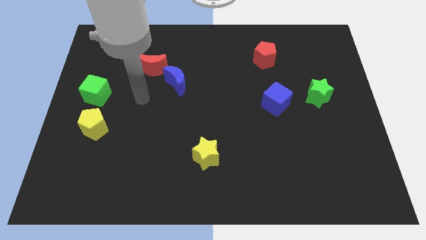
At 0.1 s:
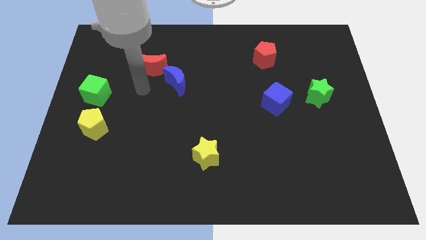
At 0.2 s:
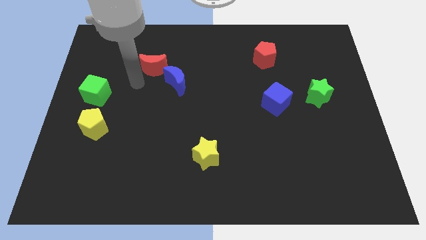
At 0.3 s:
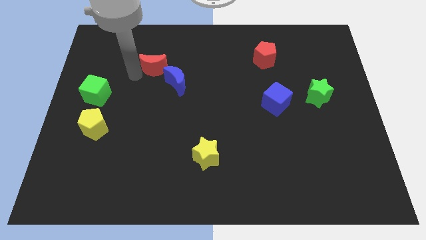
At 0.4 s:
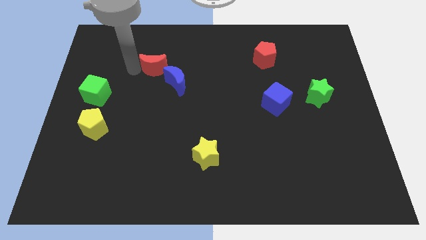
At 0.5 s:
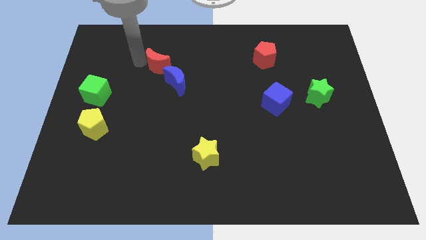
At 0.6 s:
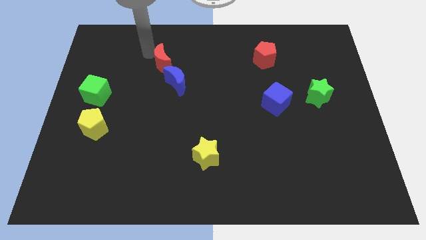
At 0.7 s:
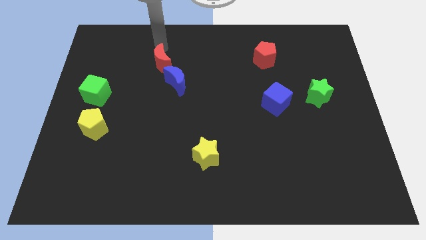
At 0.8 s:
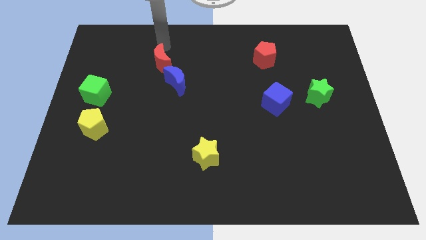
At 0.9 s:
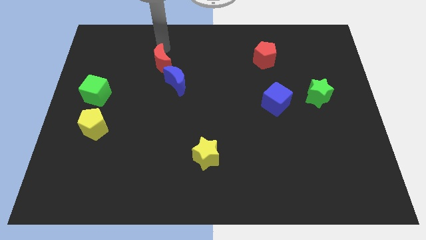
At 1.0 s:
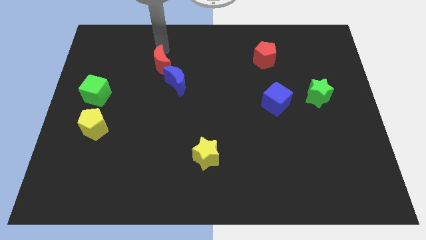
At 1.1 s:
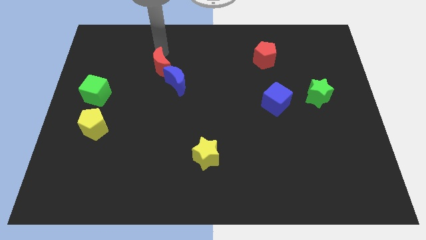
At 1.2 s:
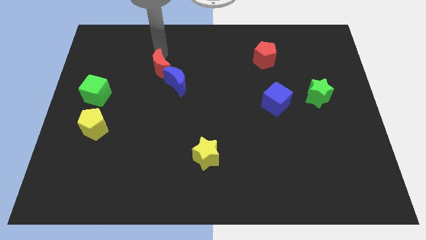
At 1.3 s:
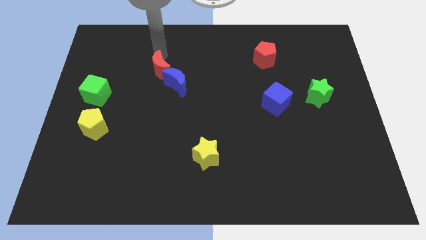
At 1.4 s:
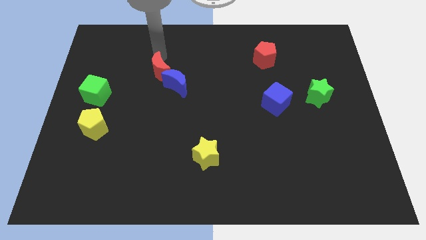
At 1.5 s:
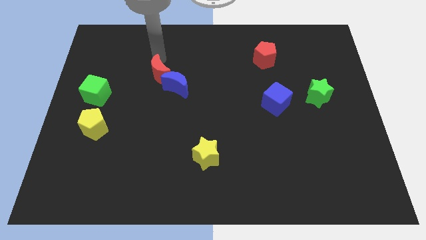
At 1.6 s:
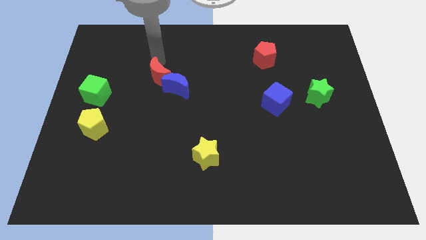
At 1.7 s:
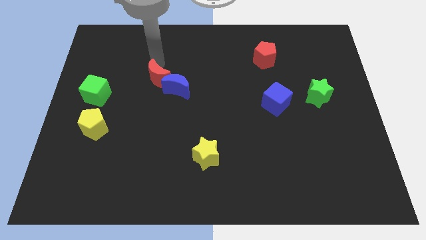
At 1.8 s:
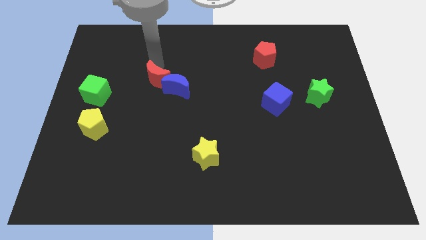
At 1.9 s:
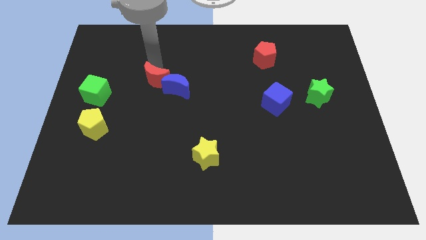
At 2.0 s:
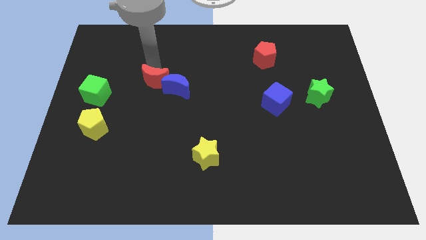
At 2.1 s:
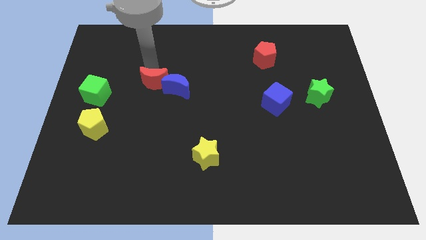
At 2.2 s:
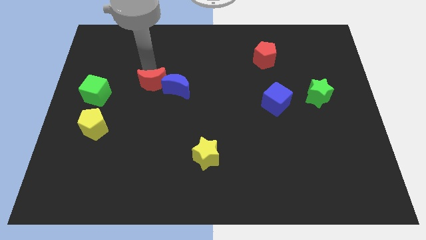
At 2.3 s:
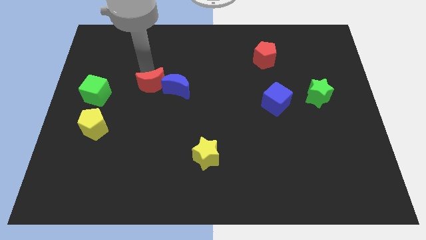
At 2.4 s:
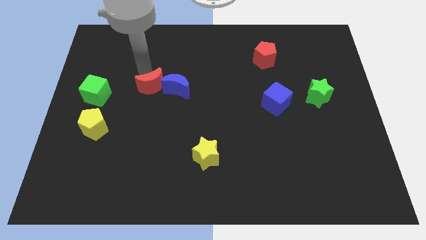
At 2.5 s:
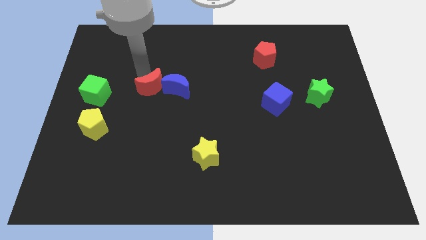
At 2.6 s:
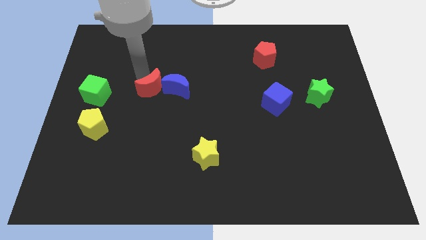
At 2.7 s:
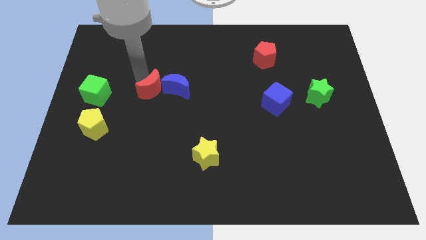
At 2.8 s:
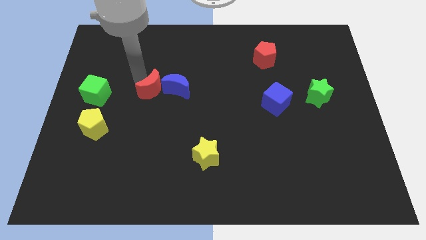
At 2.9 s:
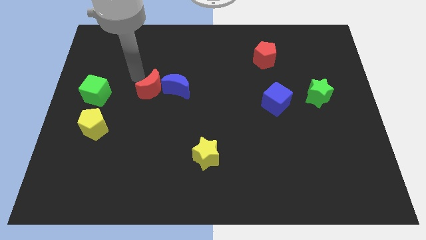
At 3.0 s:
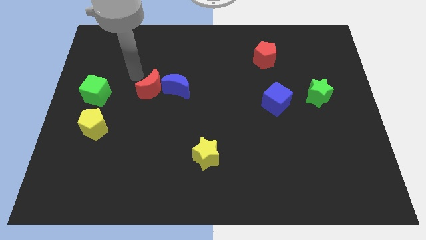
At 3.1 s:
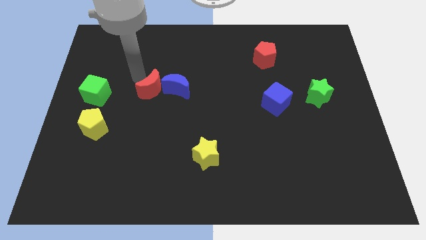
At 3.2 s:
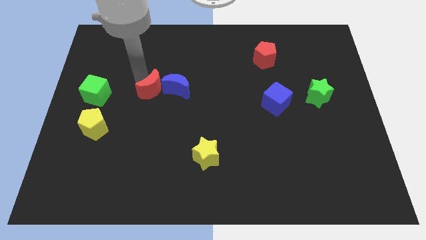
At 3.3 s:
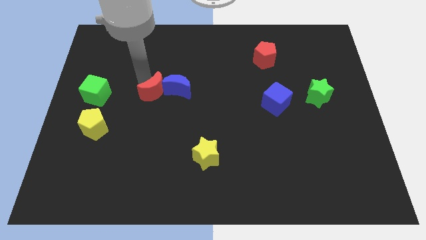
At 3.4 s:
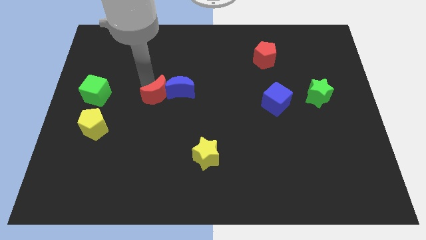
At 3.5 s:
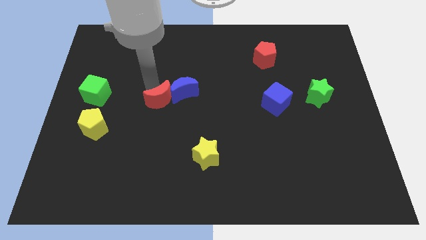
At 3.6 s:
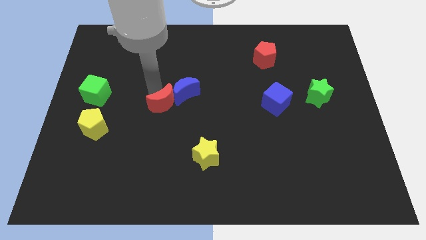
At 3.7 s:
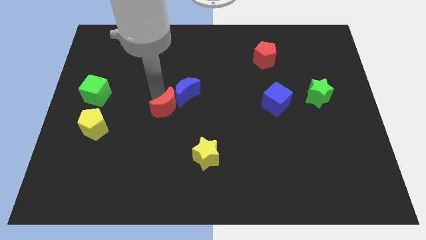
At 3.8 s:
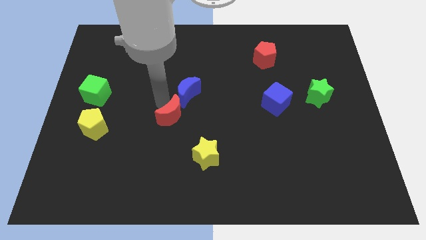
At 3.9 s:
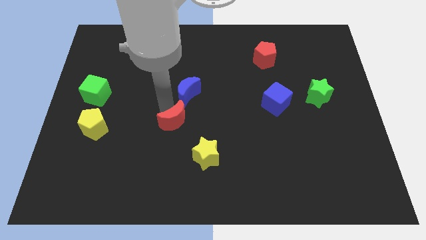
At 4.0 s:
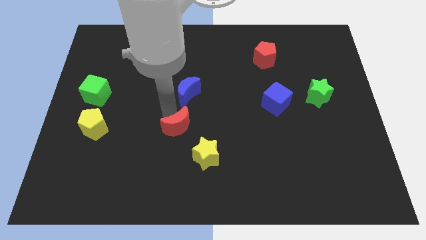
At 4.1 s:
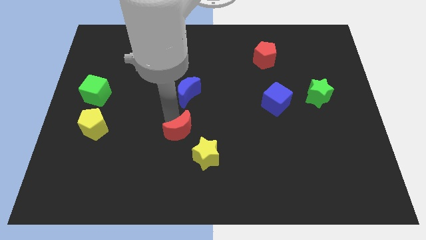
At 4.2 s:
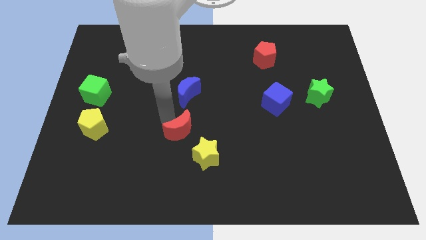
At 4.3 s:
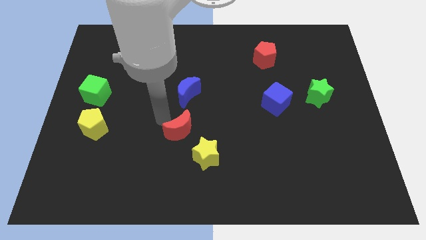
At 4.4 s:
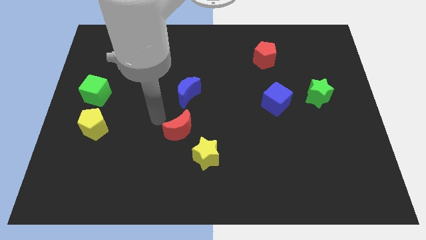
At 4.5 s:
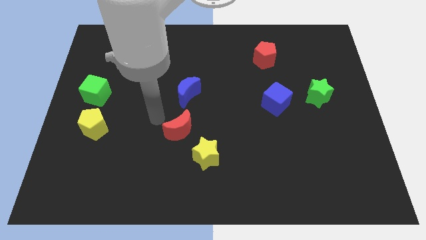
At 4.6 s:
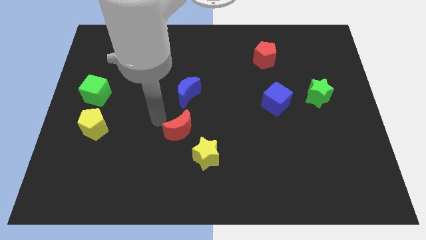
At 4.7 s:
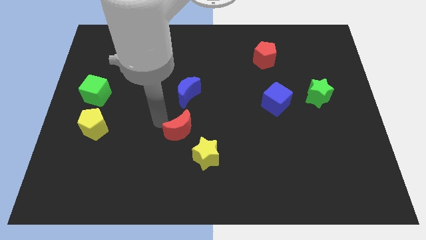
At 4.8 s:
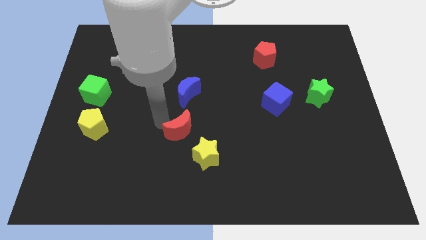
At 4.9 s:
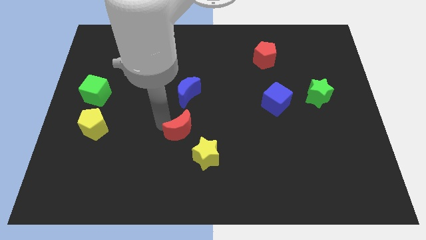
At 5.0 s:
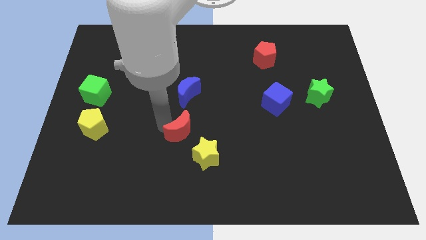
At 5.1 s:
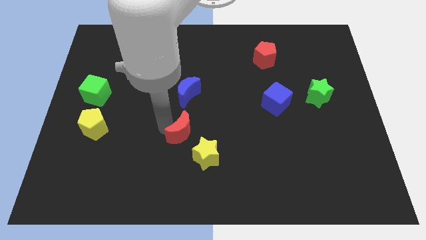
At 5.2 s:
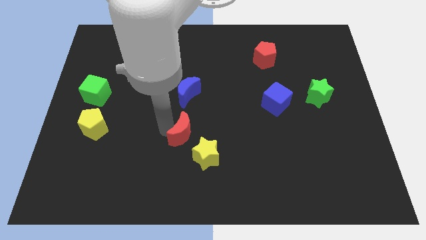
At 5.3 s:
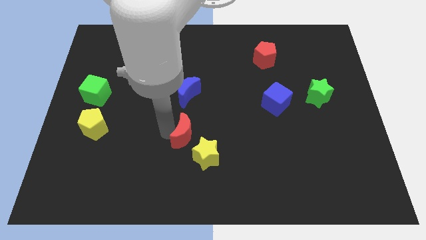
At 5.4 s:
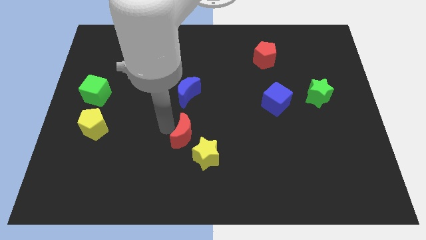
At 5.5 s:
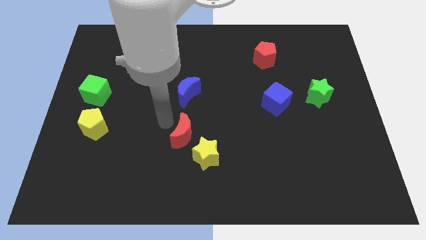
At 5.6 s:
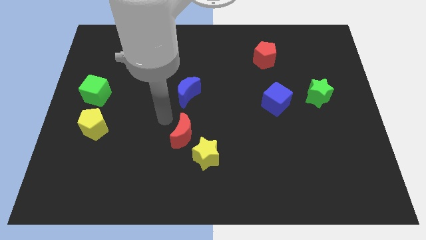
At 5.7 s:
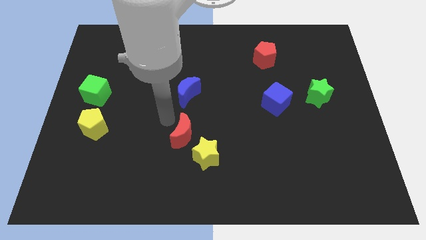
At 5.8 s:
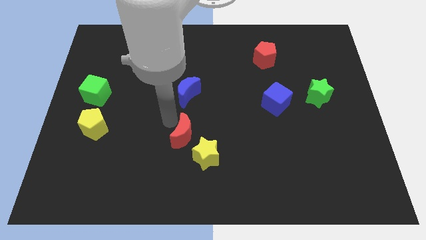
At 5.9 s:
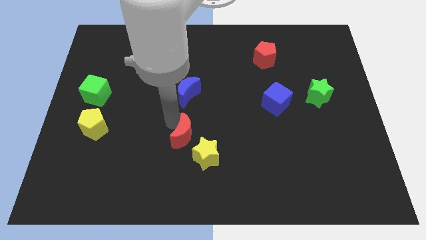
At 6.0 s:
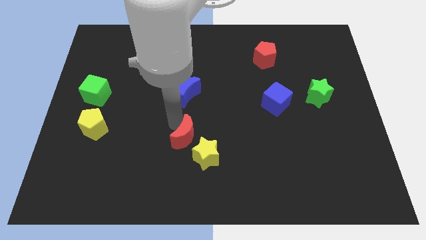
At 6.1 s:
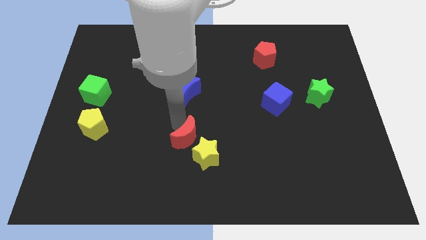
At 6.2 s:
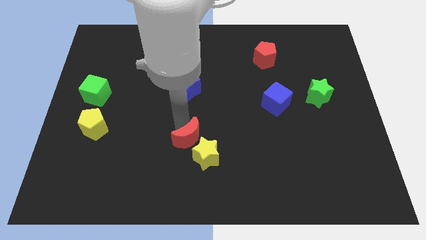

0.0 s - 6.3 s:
push the red moon close to the yellow star

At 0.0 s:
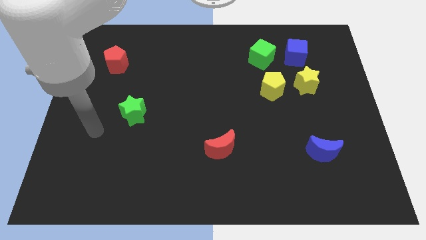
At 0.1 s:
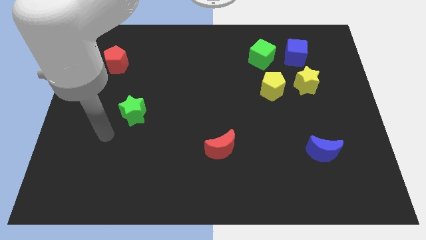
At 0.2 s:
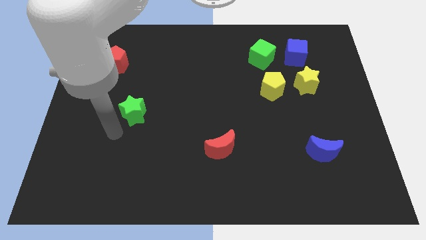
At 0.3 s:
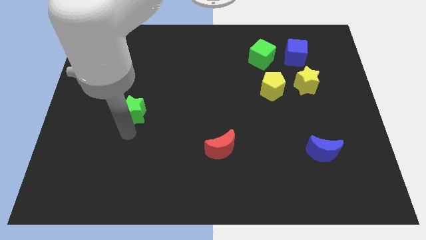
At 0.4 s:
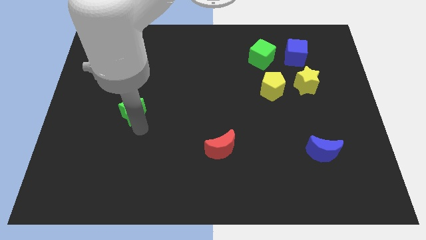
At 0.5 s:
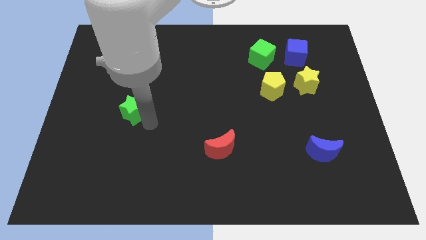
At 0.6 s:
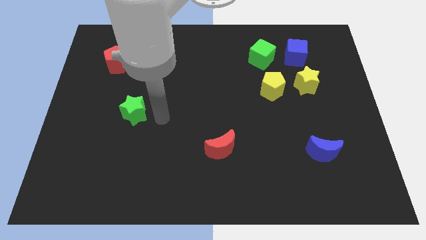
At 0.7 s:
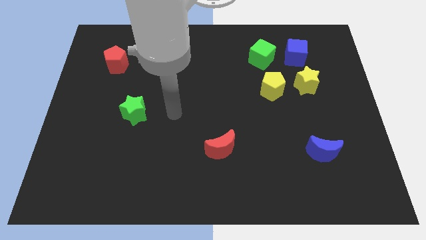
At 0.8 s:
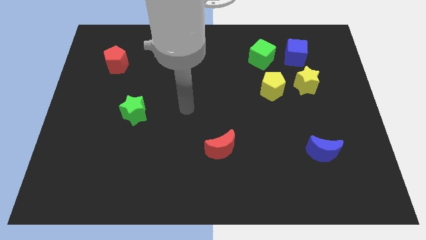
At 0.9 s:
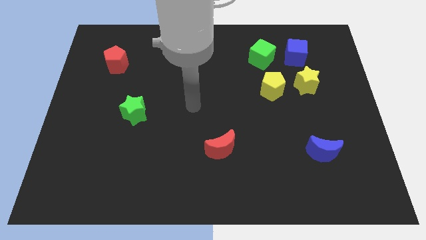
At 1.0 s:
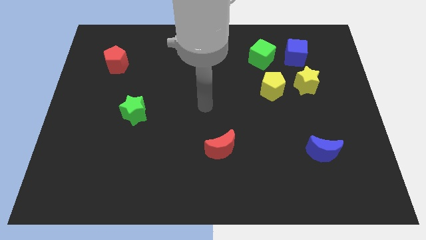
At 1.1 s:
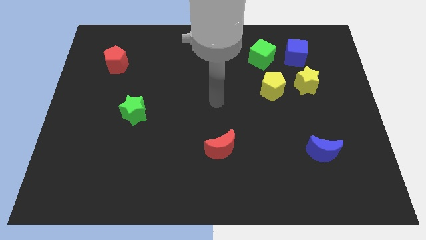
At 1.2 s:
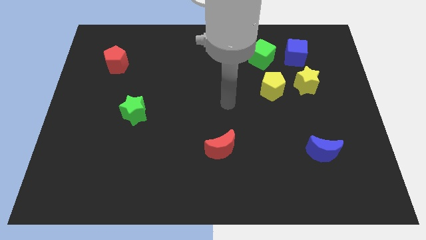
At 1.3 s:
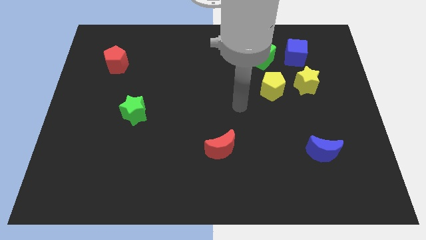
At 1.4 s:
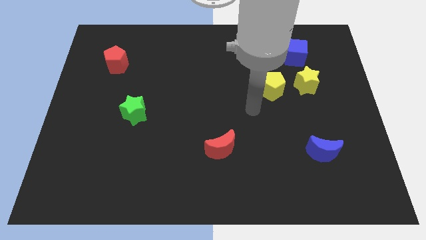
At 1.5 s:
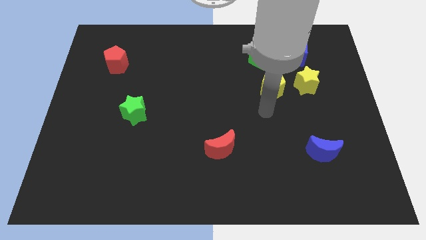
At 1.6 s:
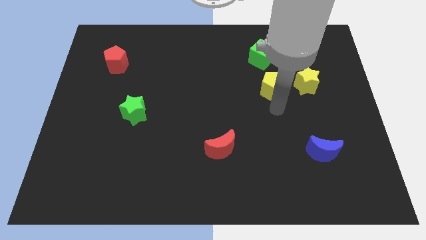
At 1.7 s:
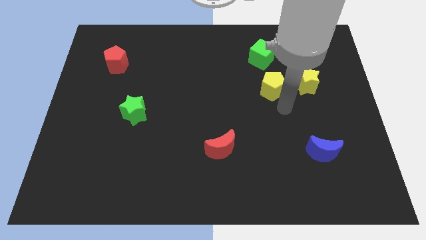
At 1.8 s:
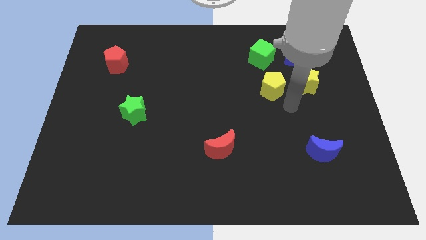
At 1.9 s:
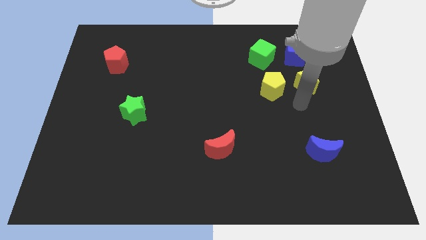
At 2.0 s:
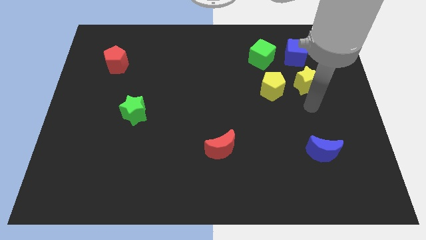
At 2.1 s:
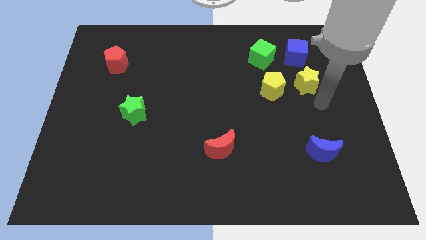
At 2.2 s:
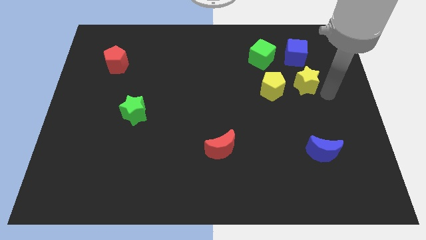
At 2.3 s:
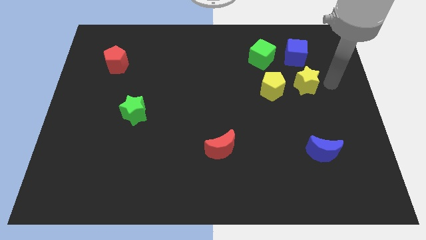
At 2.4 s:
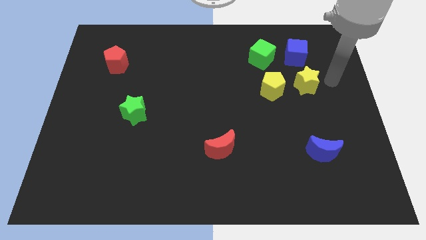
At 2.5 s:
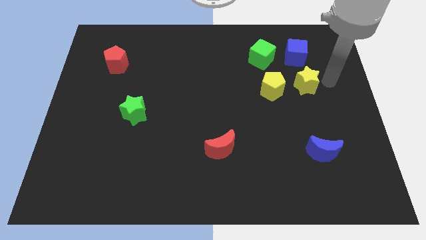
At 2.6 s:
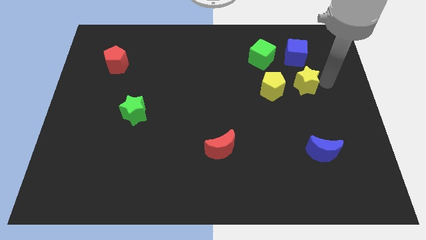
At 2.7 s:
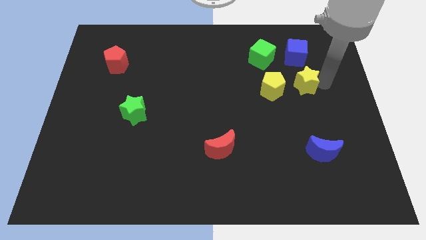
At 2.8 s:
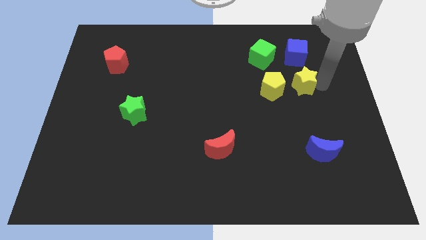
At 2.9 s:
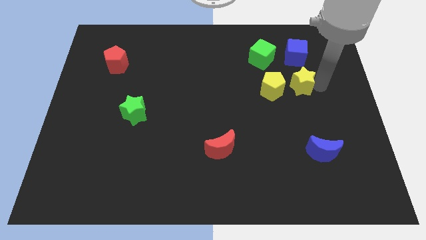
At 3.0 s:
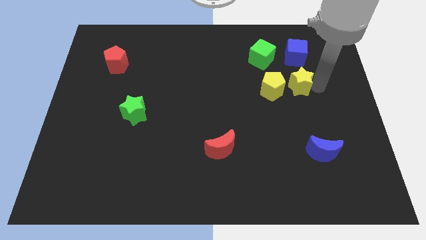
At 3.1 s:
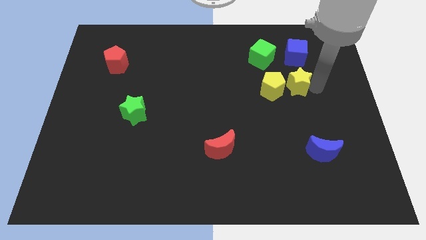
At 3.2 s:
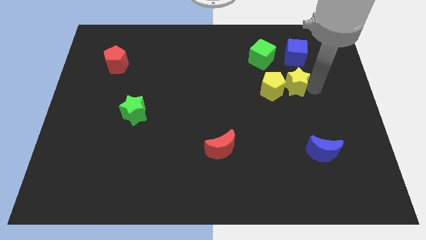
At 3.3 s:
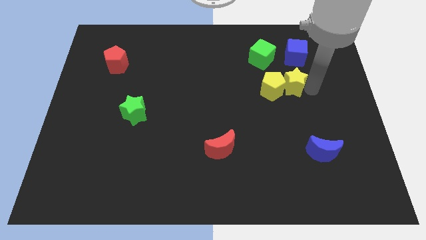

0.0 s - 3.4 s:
put the yellow star to the yellow pentagon
